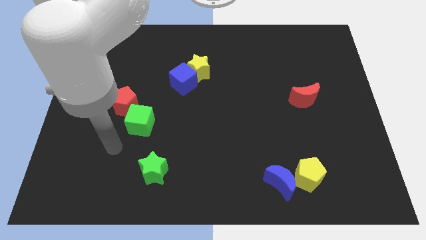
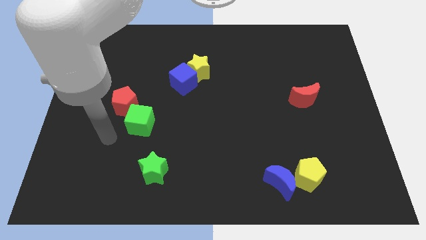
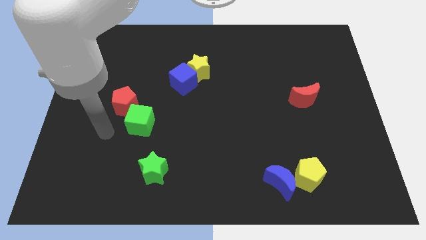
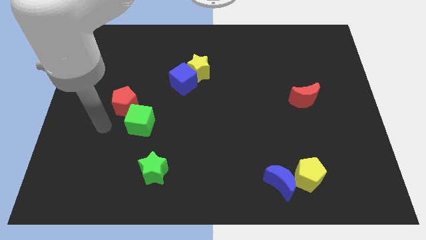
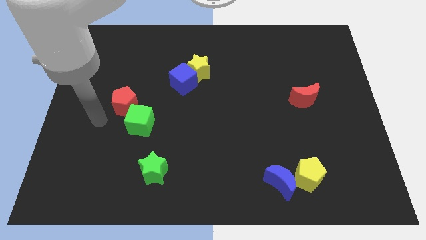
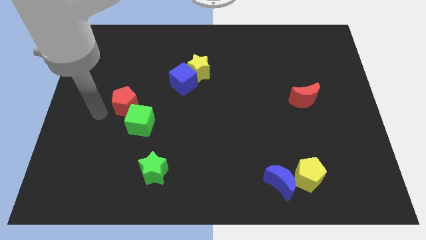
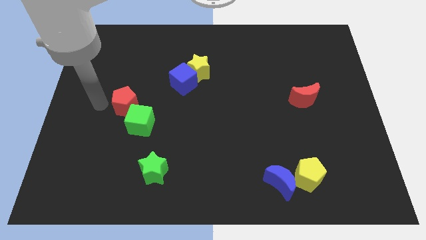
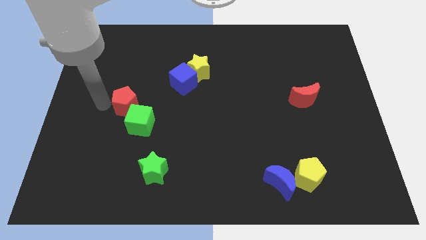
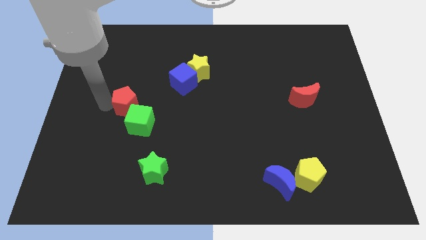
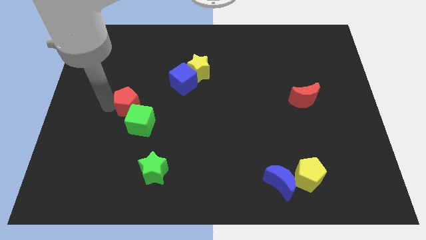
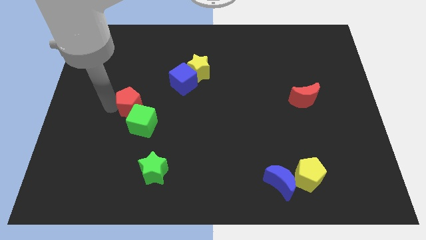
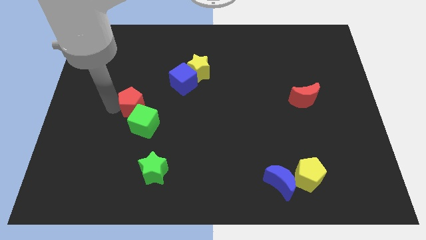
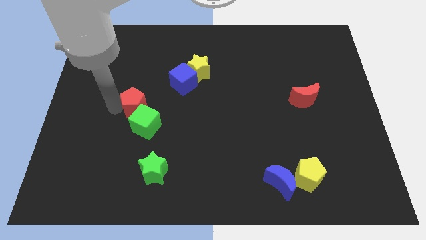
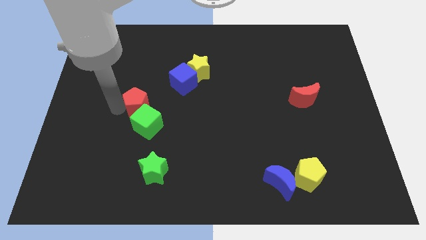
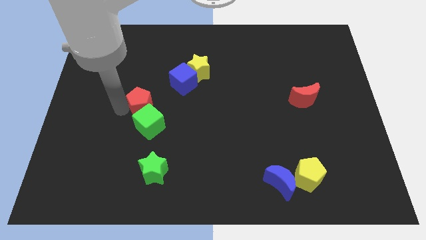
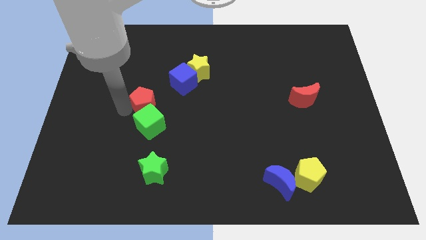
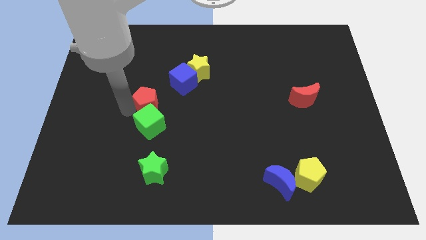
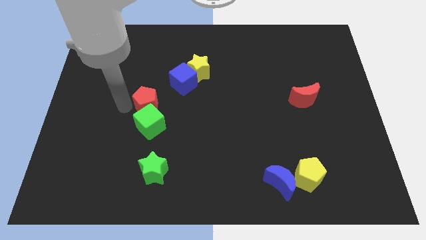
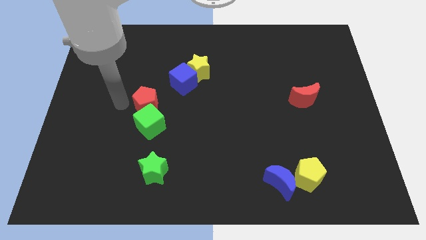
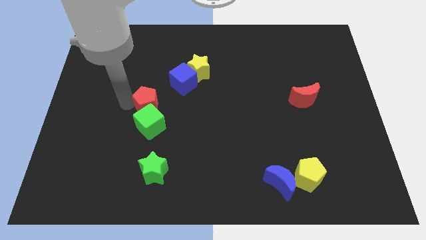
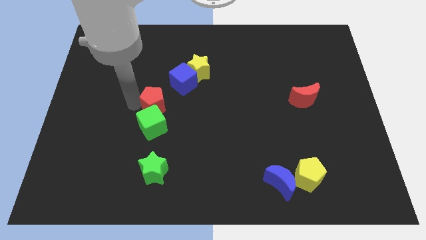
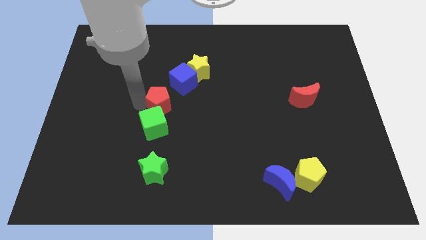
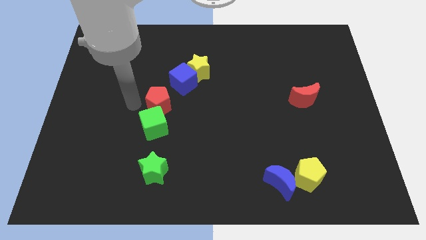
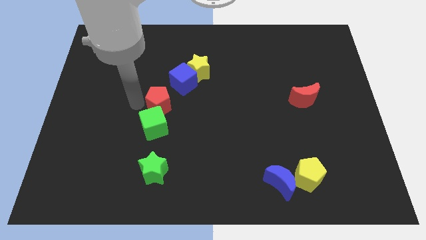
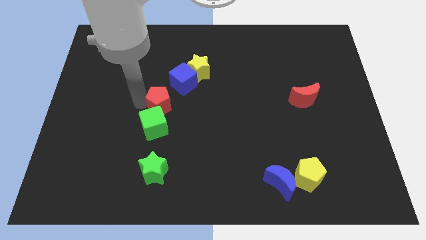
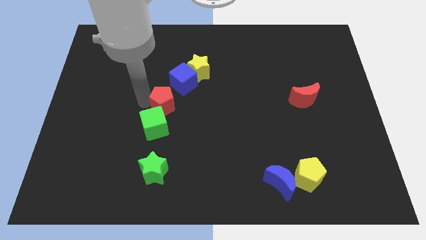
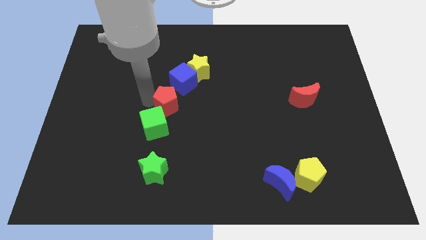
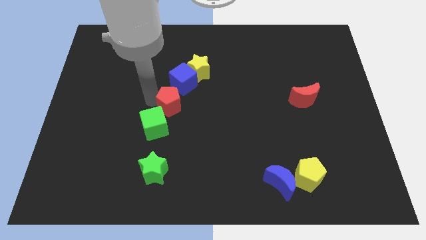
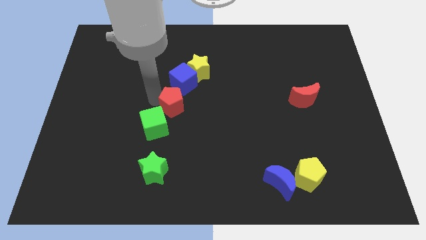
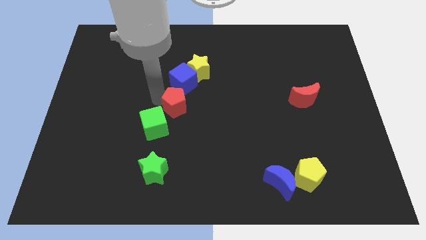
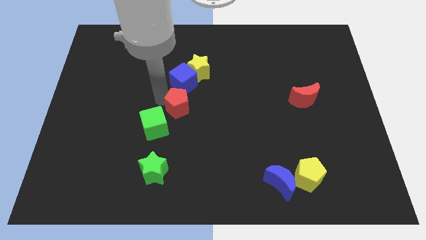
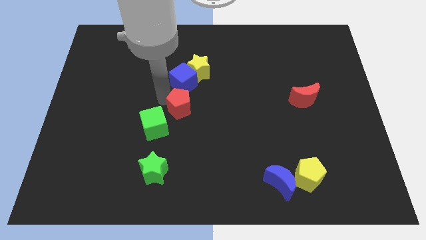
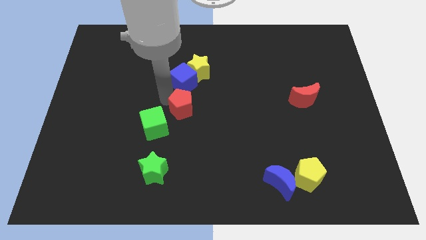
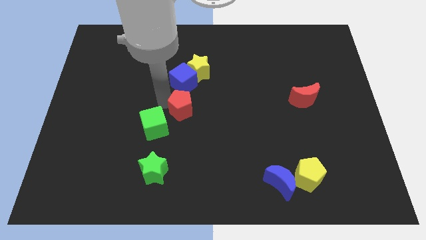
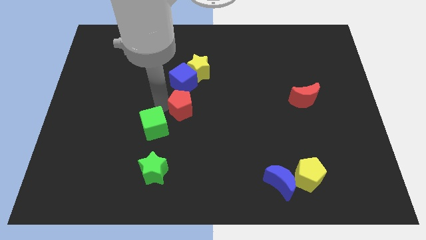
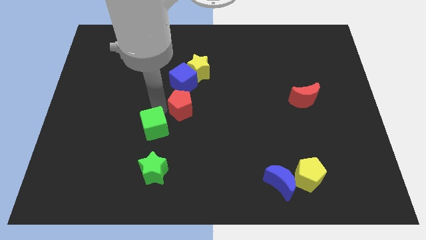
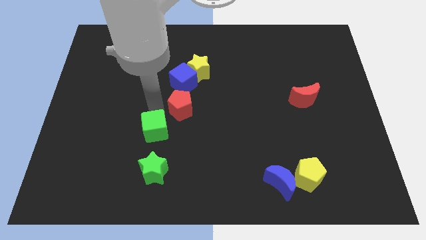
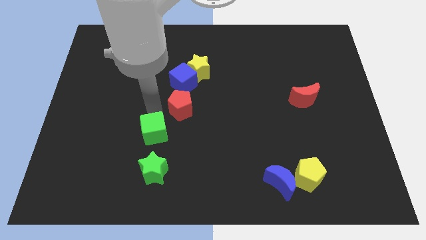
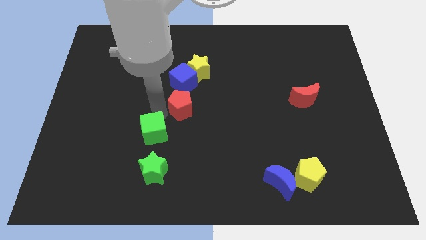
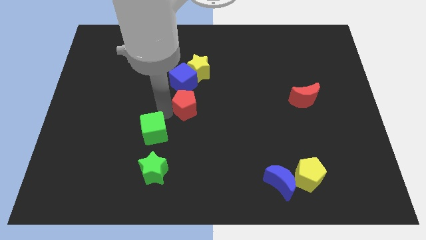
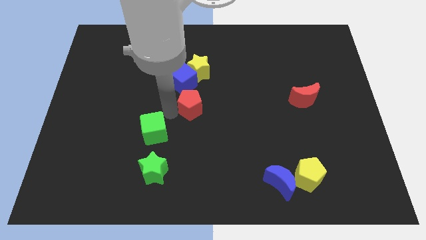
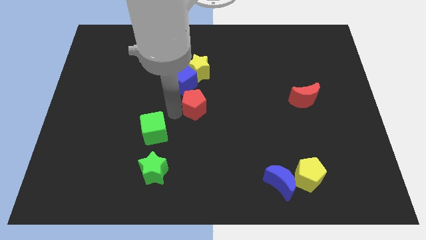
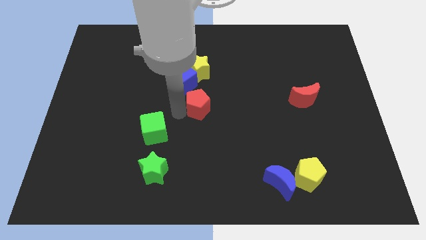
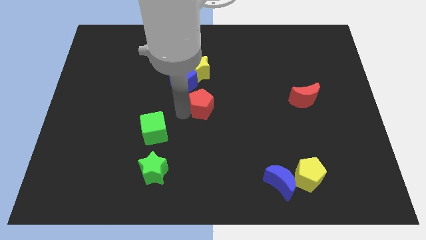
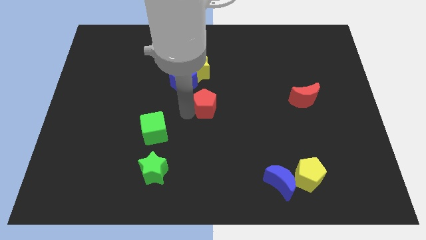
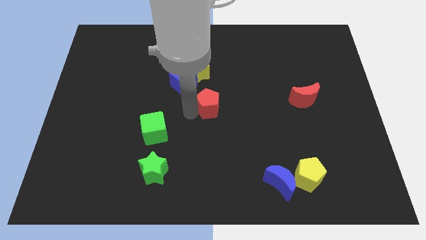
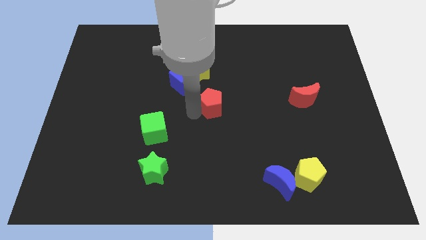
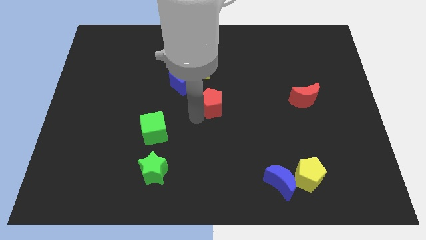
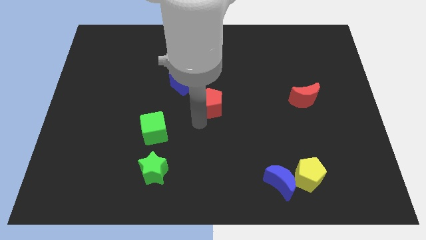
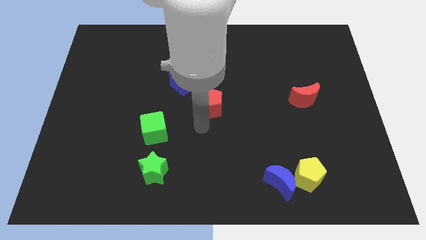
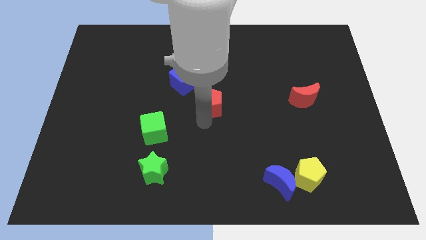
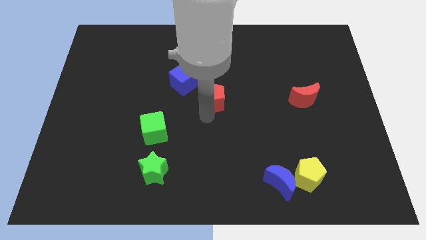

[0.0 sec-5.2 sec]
put the red pentagon diagonally down and to the right of the yellow star

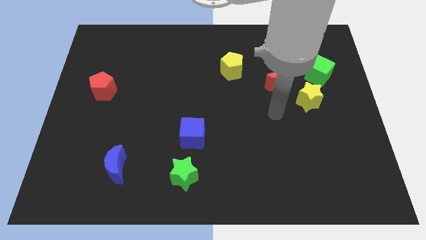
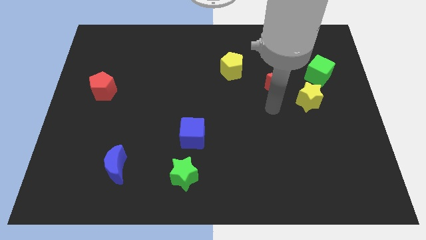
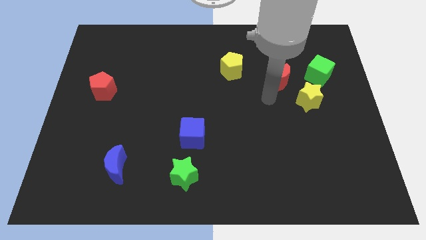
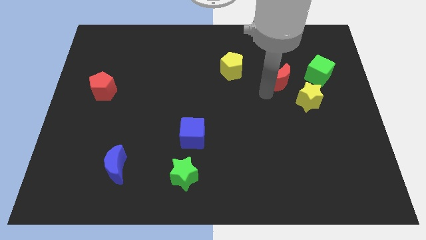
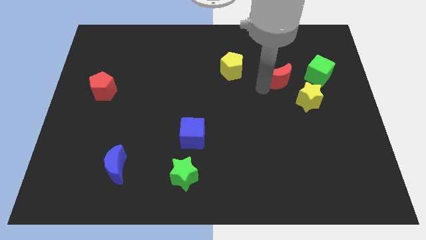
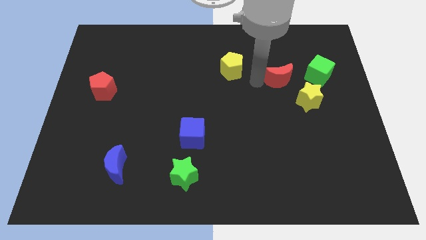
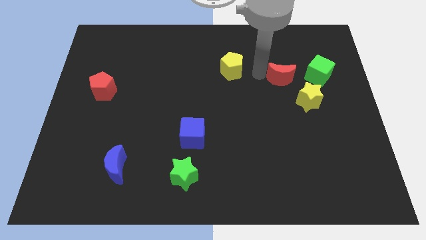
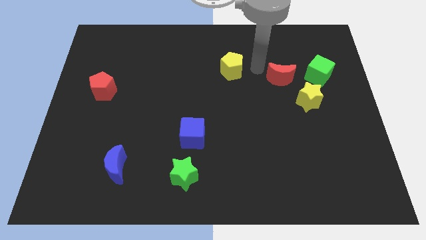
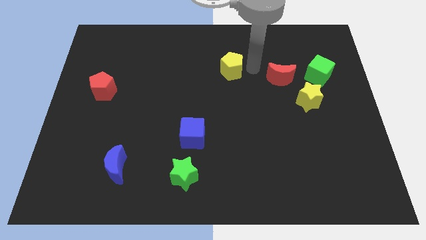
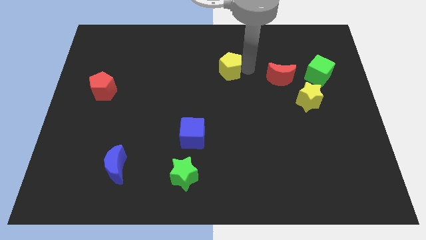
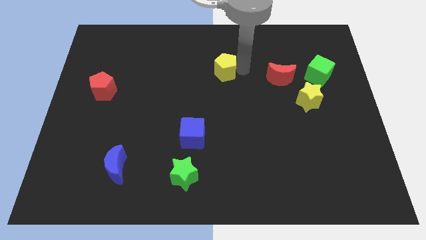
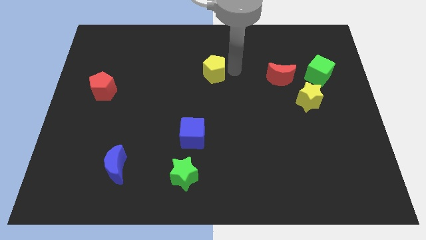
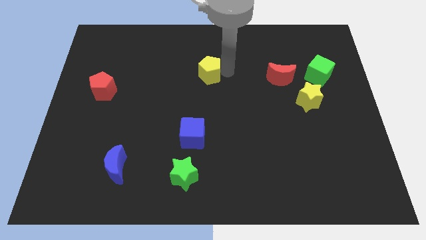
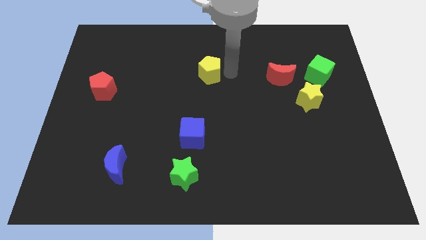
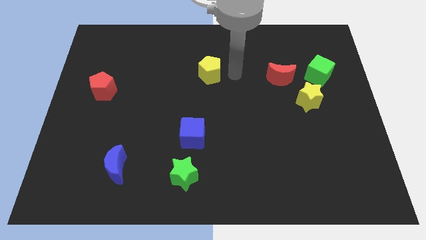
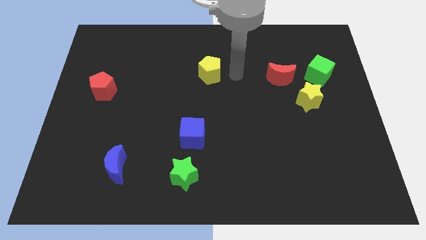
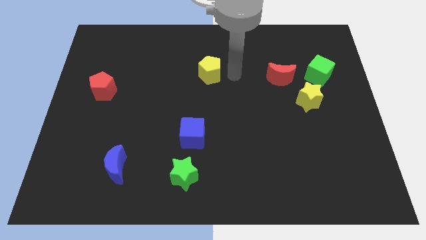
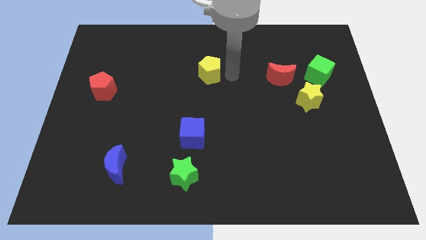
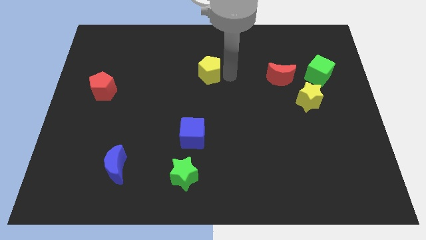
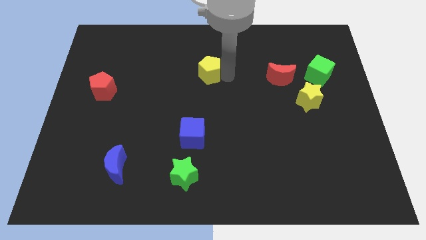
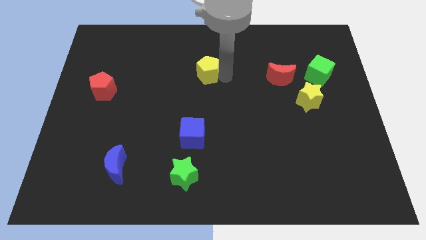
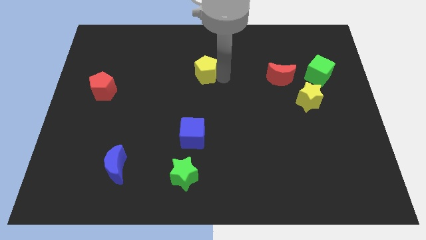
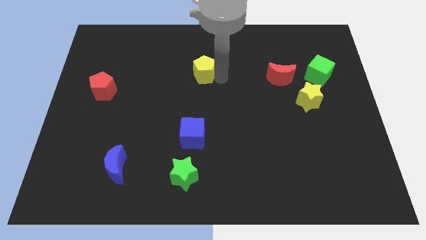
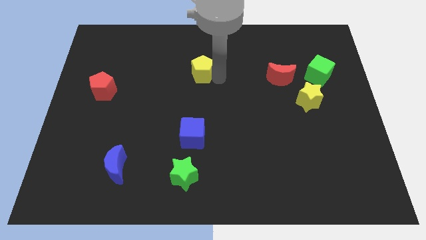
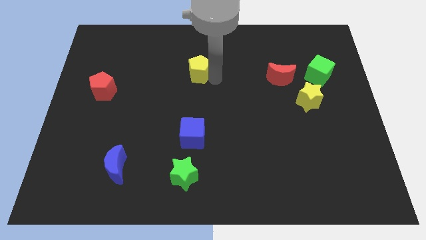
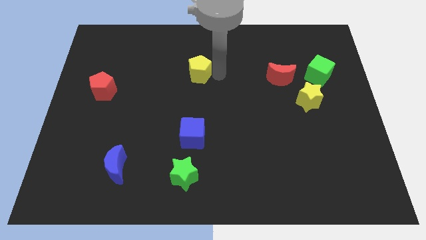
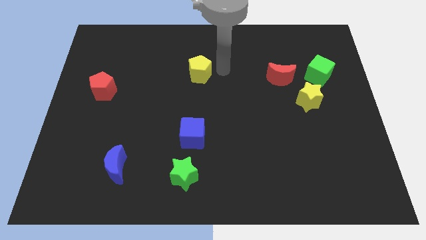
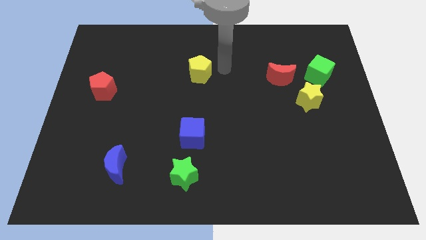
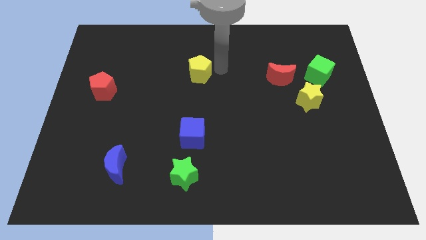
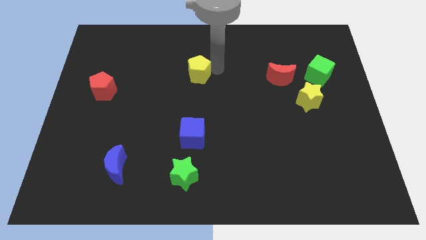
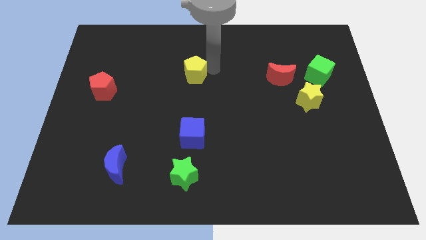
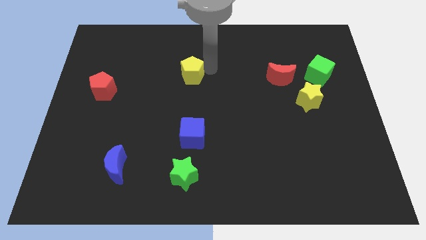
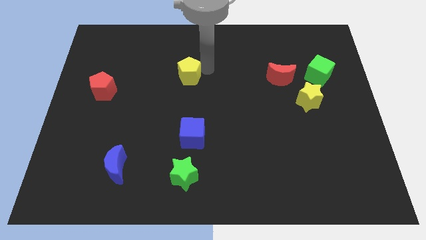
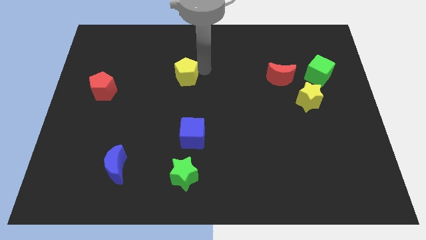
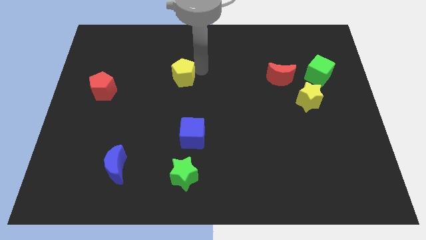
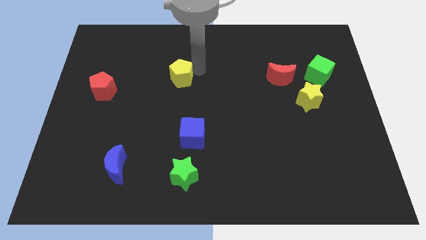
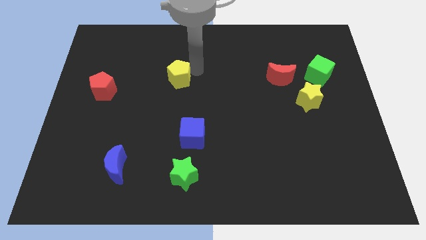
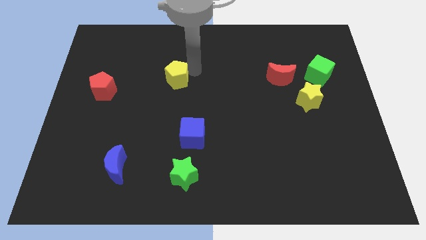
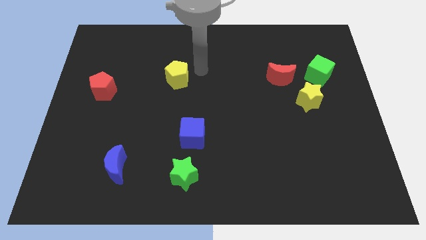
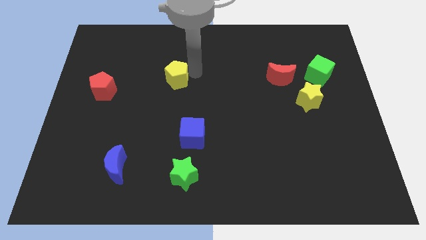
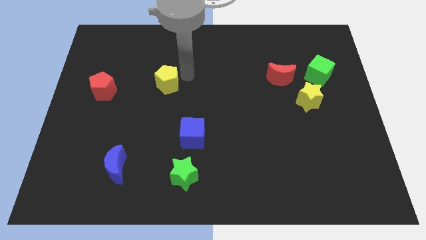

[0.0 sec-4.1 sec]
slide the yellow pentagon to the right side of the red pentagon
